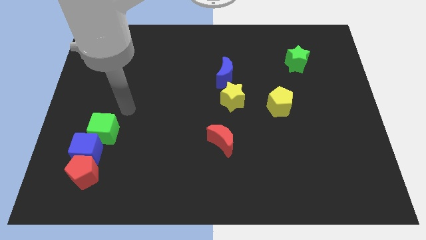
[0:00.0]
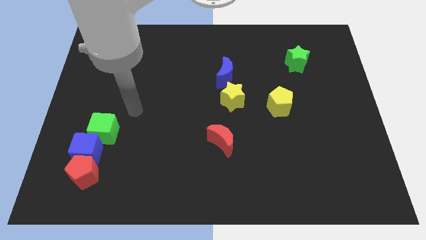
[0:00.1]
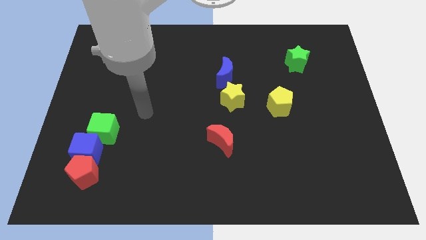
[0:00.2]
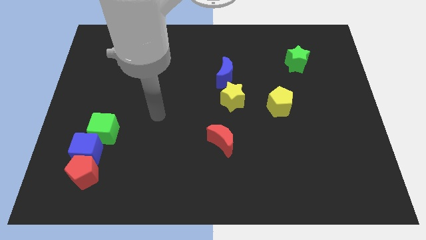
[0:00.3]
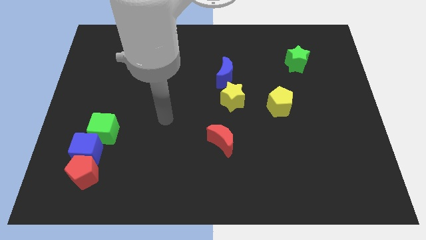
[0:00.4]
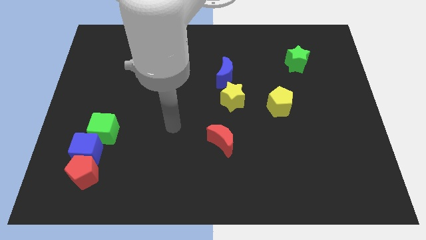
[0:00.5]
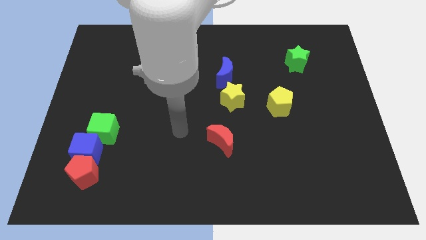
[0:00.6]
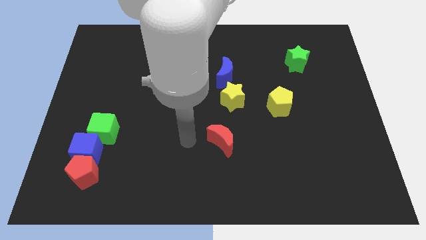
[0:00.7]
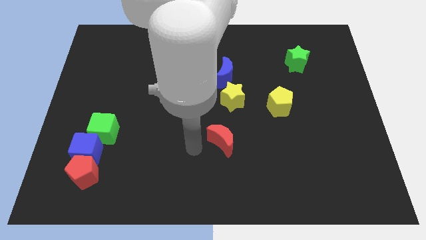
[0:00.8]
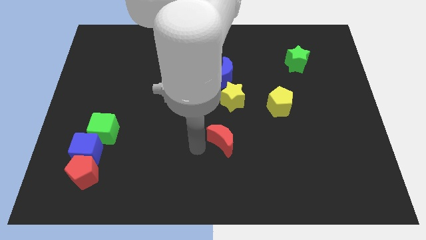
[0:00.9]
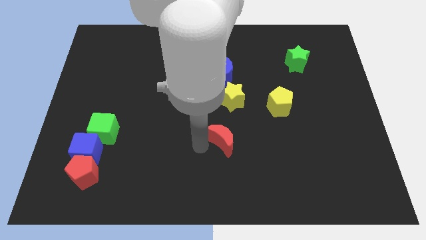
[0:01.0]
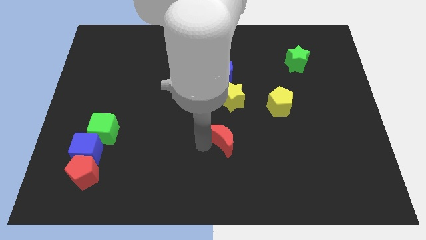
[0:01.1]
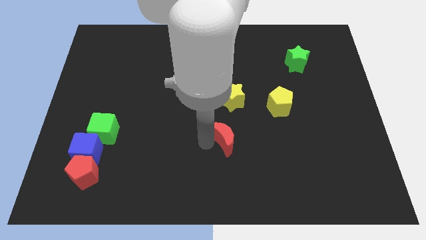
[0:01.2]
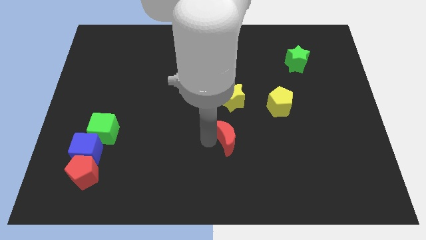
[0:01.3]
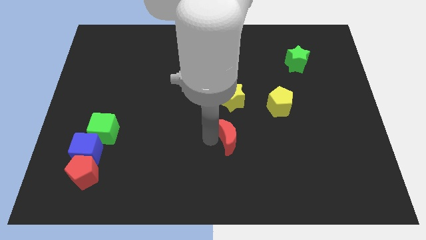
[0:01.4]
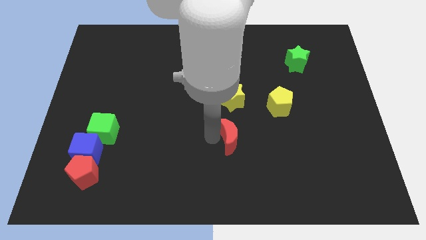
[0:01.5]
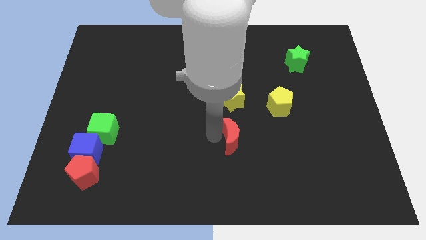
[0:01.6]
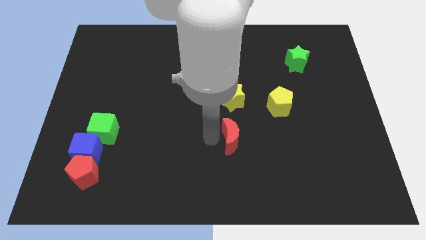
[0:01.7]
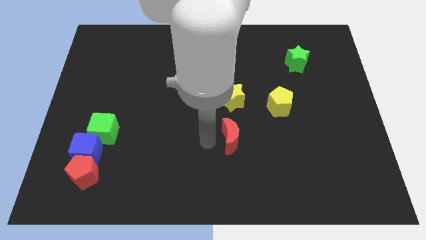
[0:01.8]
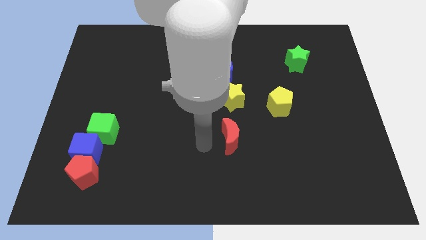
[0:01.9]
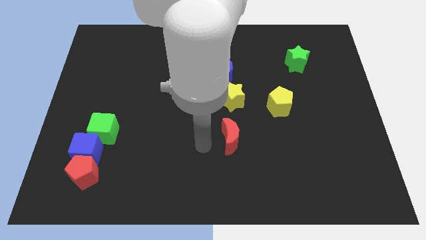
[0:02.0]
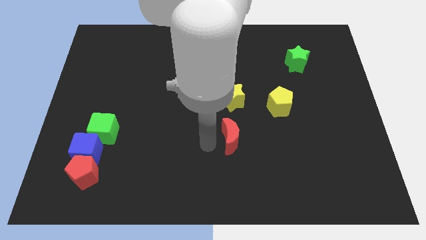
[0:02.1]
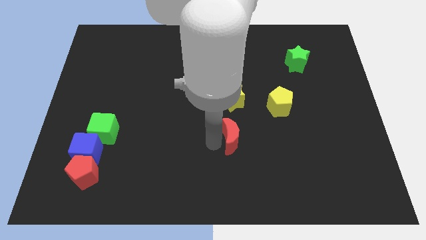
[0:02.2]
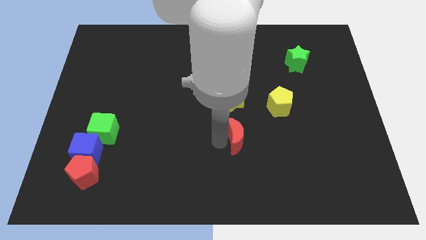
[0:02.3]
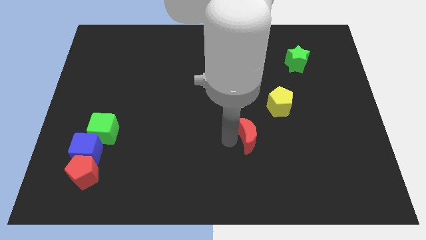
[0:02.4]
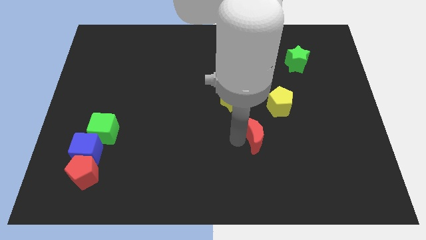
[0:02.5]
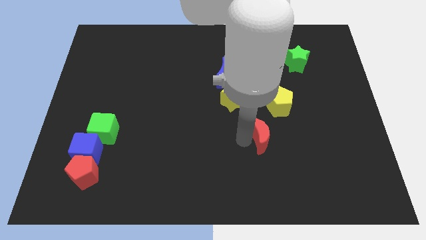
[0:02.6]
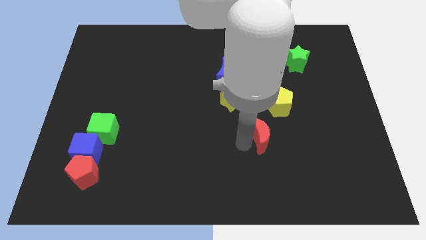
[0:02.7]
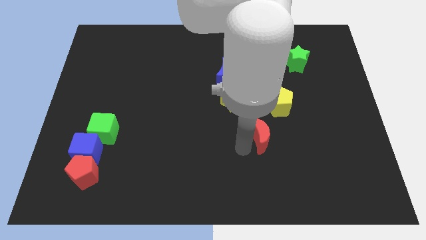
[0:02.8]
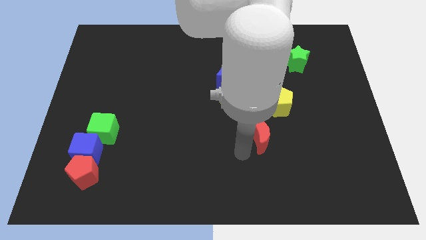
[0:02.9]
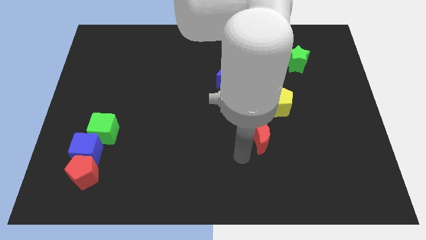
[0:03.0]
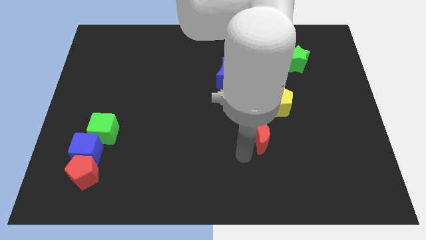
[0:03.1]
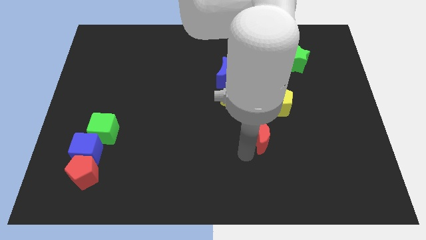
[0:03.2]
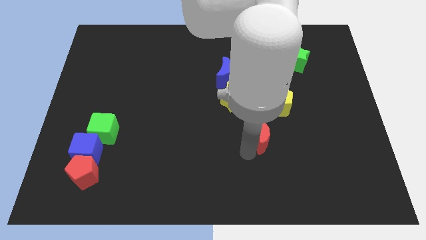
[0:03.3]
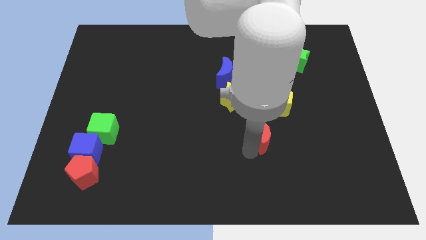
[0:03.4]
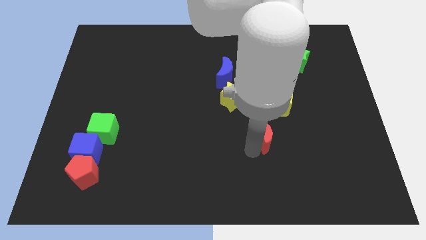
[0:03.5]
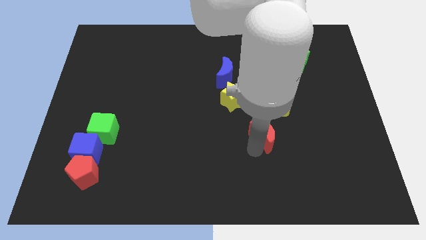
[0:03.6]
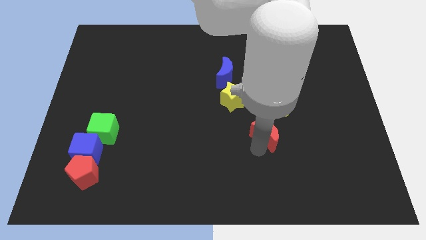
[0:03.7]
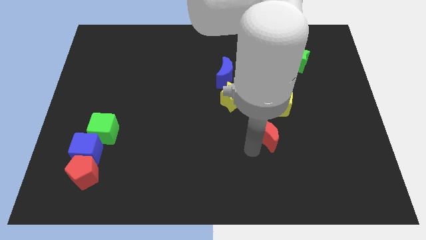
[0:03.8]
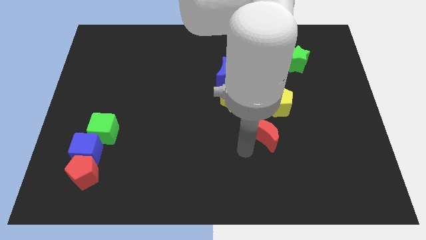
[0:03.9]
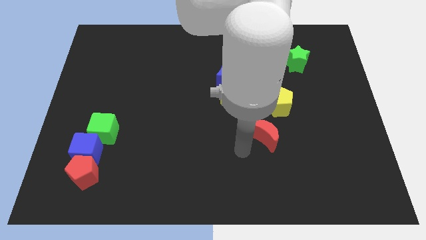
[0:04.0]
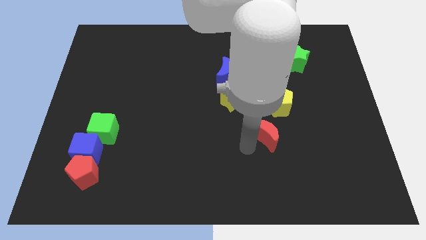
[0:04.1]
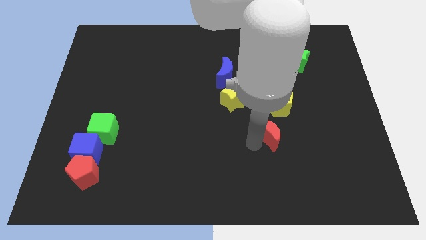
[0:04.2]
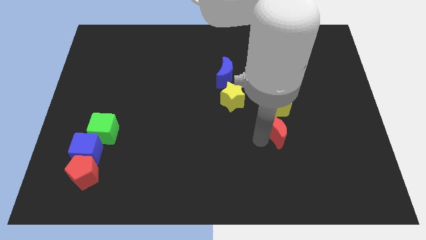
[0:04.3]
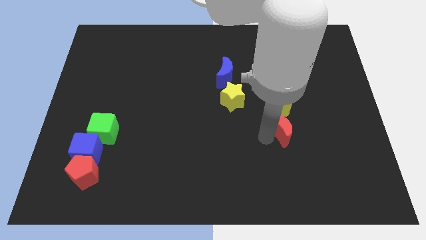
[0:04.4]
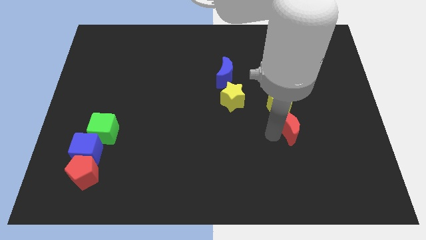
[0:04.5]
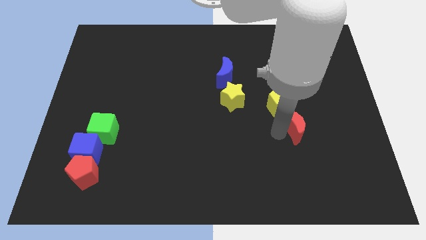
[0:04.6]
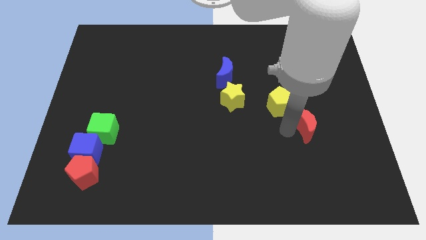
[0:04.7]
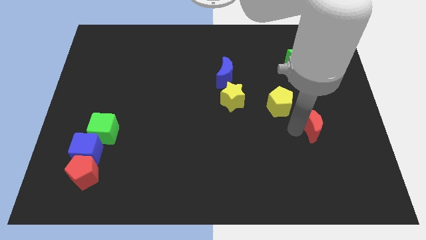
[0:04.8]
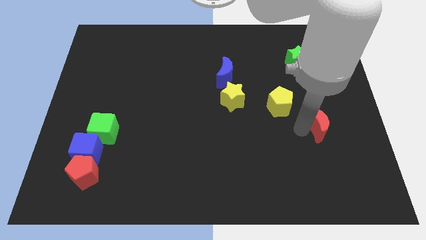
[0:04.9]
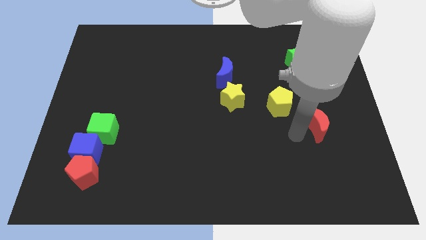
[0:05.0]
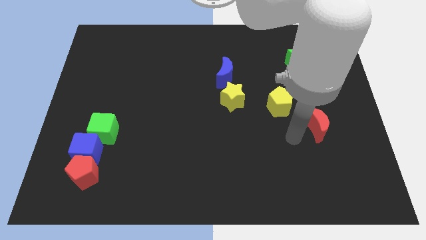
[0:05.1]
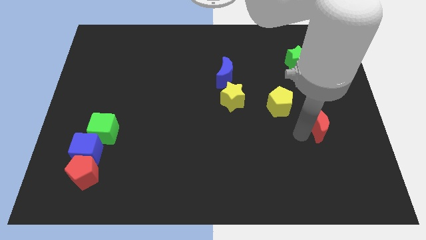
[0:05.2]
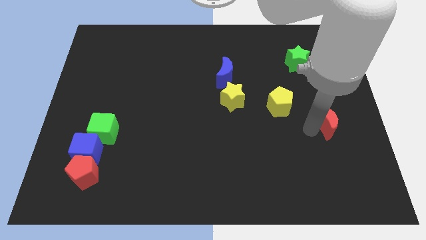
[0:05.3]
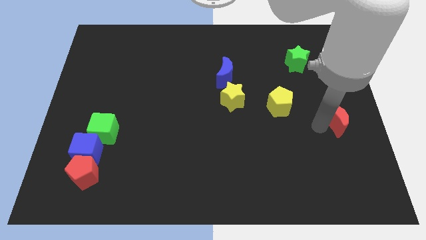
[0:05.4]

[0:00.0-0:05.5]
move the red moon to the right side

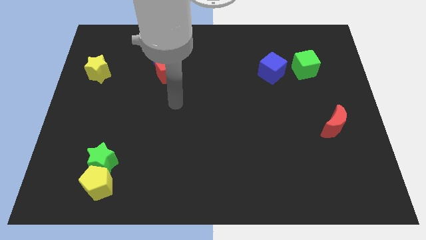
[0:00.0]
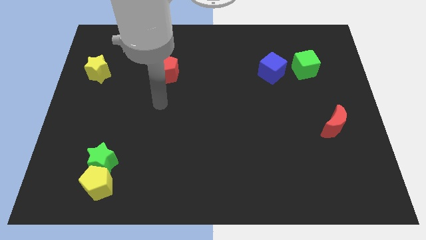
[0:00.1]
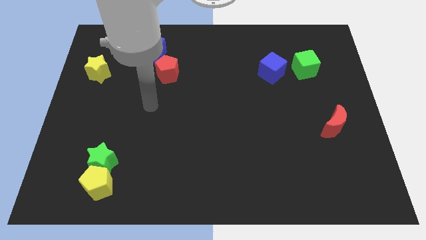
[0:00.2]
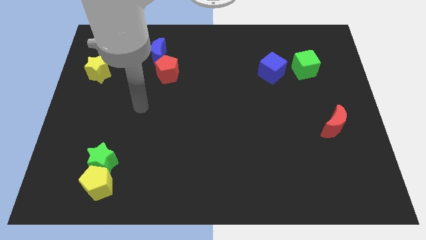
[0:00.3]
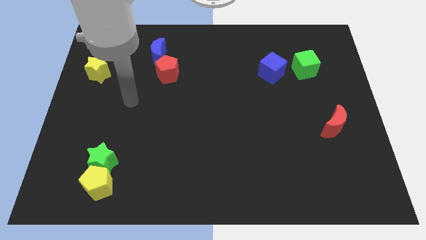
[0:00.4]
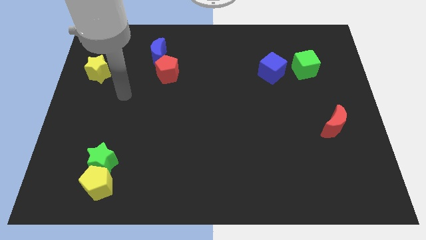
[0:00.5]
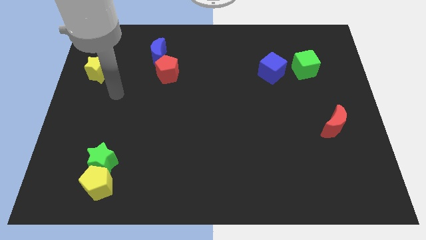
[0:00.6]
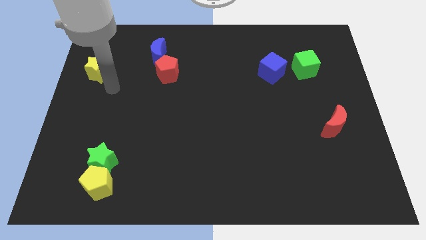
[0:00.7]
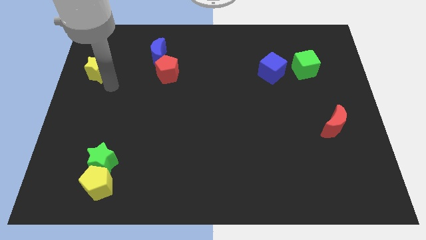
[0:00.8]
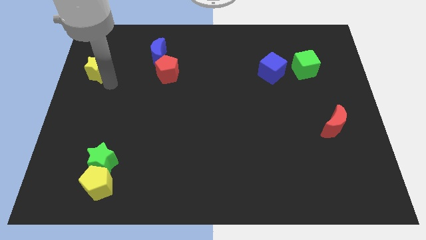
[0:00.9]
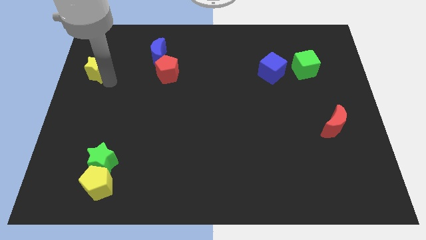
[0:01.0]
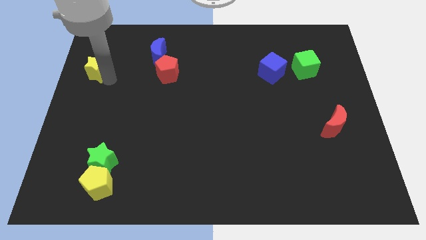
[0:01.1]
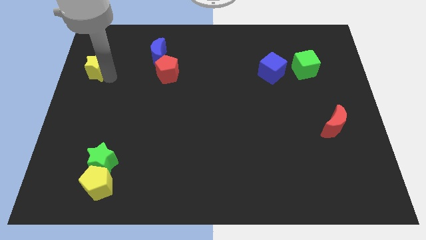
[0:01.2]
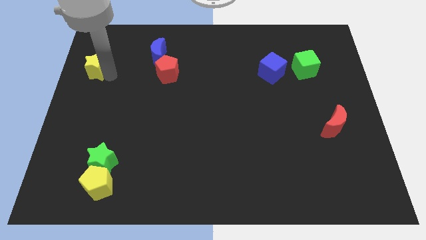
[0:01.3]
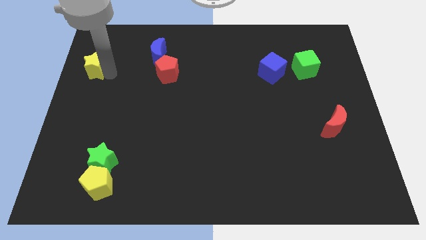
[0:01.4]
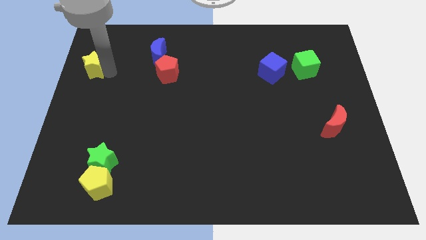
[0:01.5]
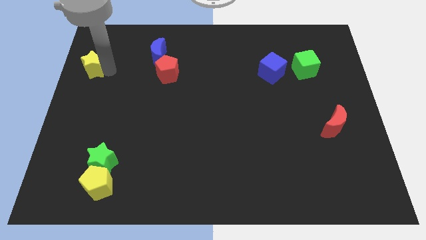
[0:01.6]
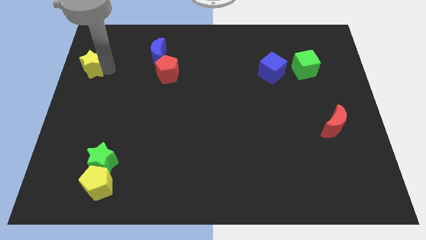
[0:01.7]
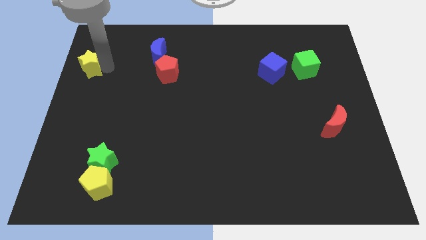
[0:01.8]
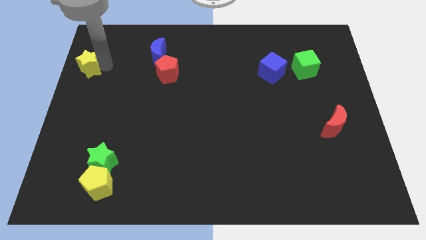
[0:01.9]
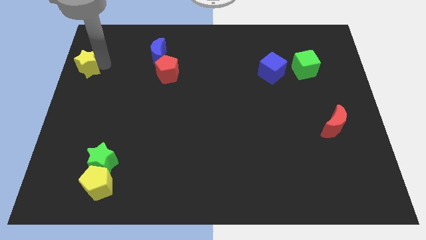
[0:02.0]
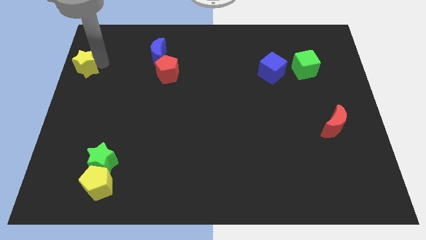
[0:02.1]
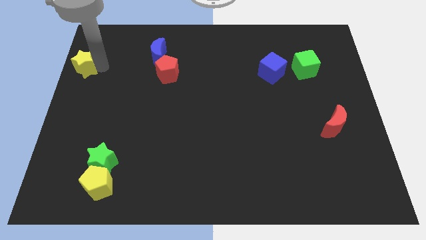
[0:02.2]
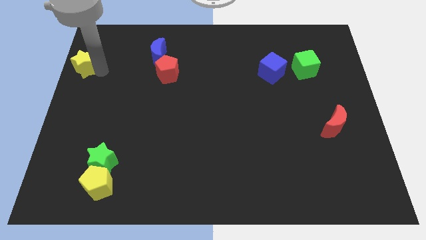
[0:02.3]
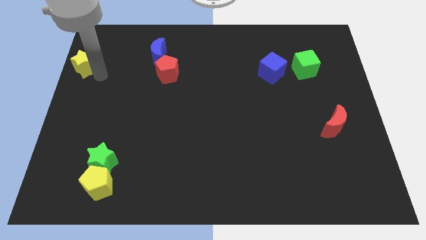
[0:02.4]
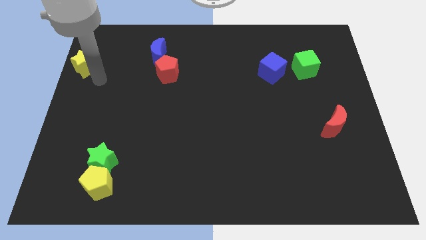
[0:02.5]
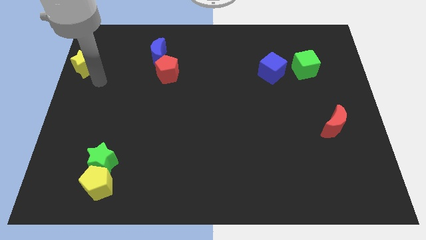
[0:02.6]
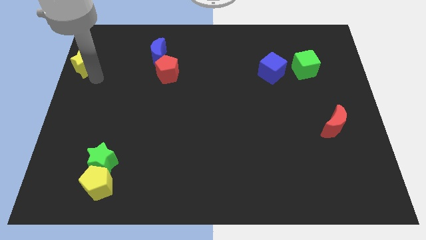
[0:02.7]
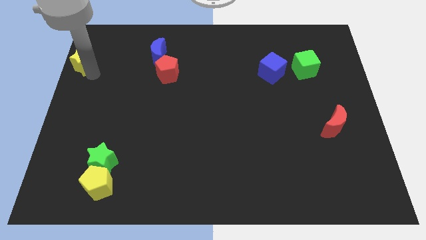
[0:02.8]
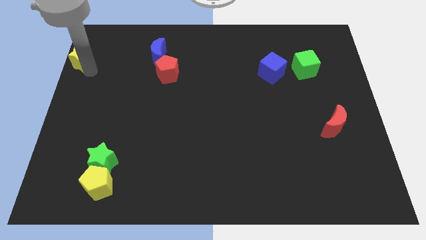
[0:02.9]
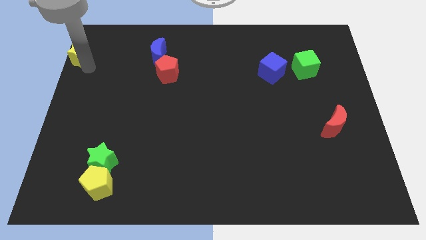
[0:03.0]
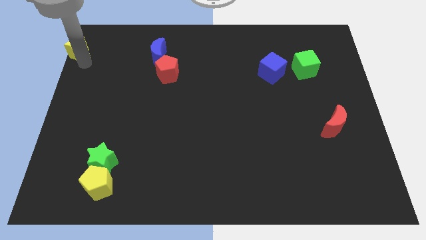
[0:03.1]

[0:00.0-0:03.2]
put the yellow star to the top left corner
